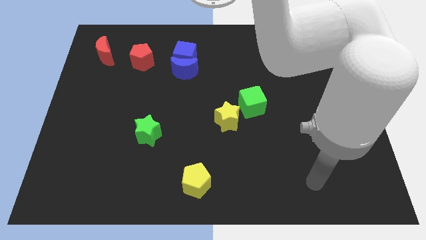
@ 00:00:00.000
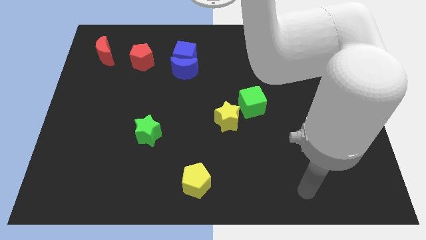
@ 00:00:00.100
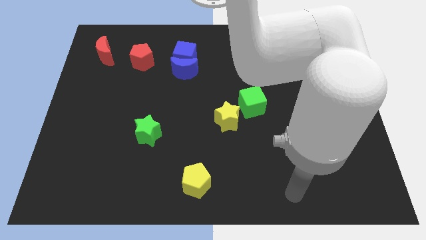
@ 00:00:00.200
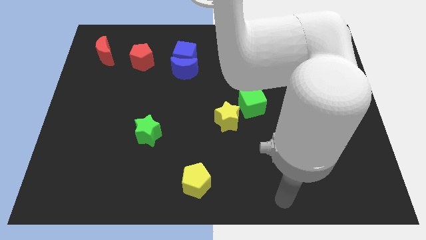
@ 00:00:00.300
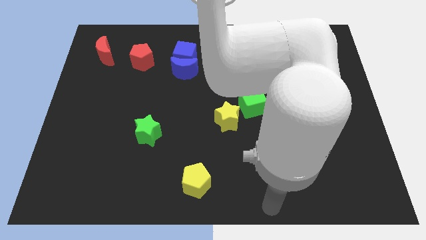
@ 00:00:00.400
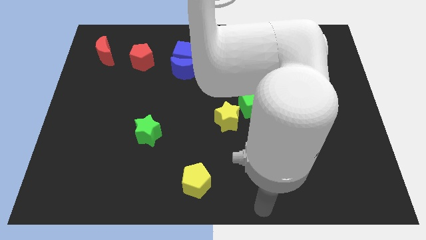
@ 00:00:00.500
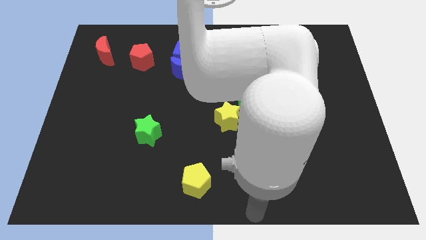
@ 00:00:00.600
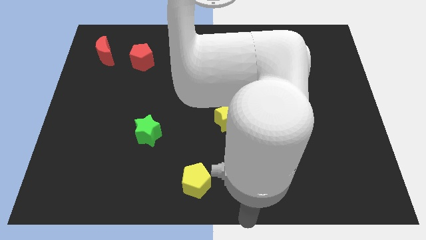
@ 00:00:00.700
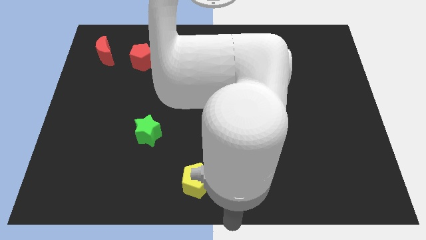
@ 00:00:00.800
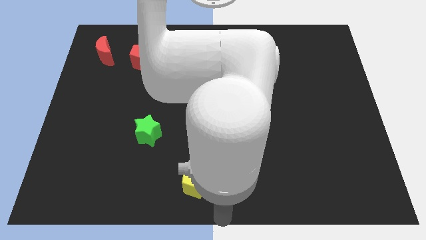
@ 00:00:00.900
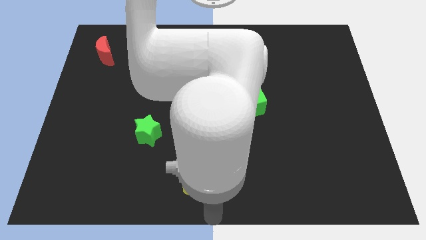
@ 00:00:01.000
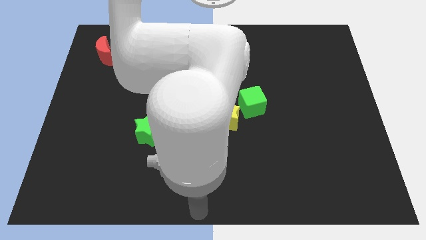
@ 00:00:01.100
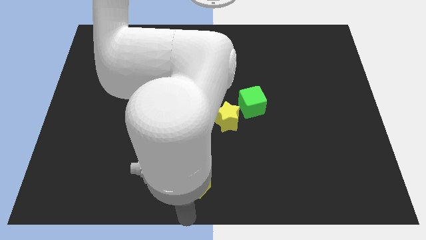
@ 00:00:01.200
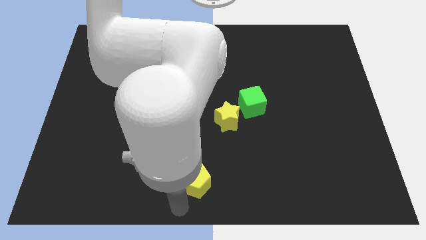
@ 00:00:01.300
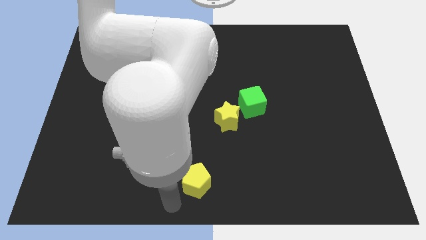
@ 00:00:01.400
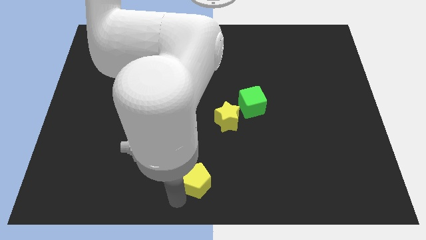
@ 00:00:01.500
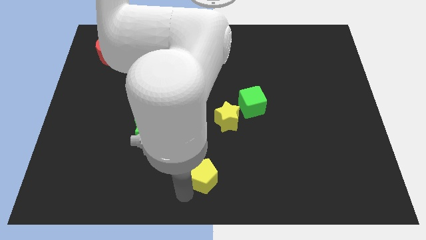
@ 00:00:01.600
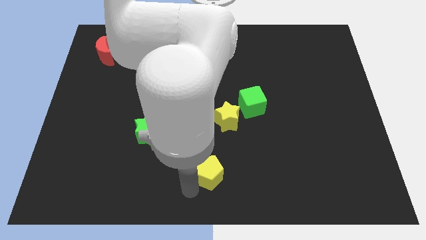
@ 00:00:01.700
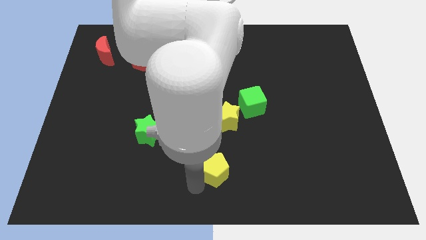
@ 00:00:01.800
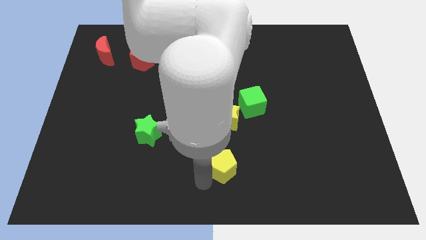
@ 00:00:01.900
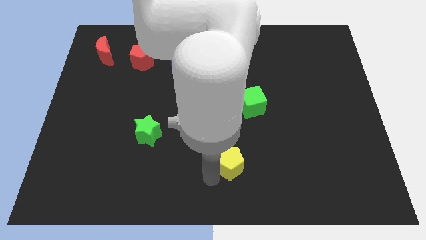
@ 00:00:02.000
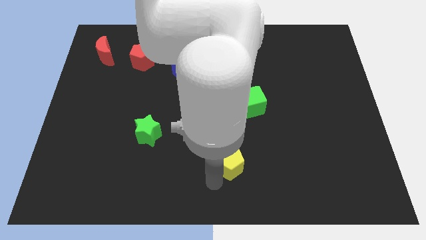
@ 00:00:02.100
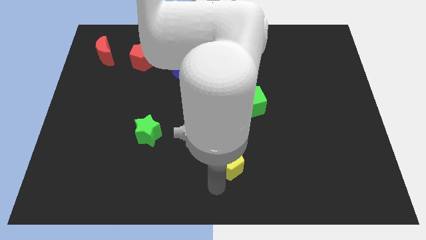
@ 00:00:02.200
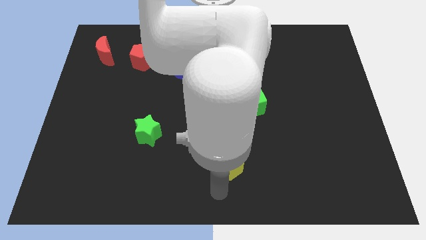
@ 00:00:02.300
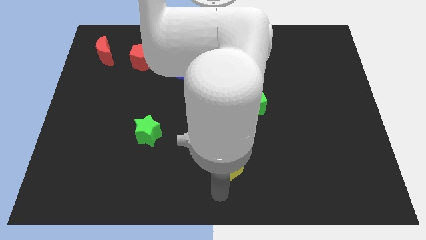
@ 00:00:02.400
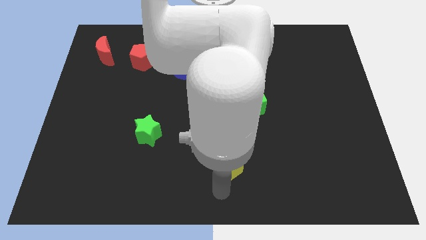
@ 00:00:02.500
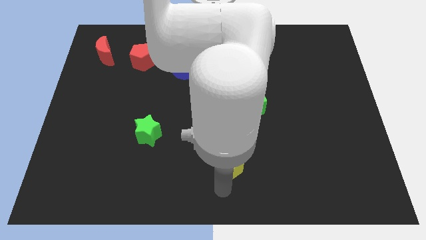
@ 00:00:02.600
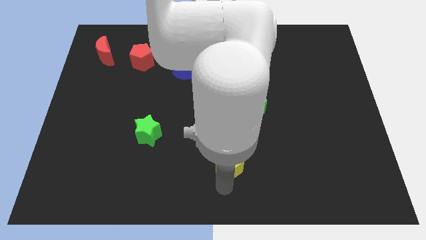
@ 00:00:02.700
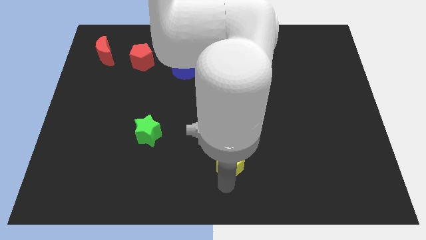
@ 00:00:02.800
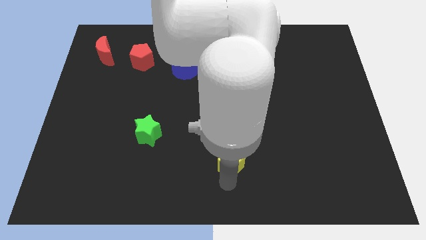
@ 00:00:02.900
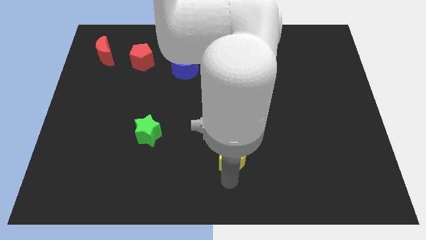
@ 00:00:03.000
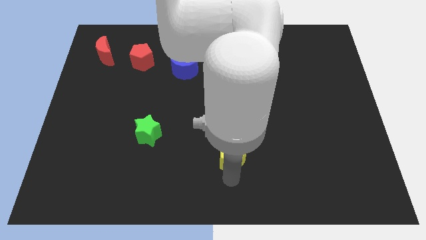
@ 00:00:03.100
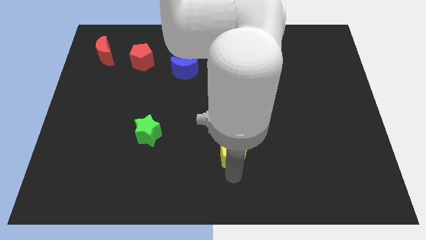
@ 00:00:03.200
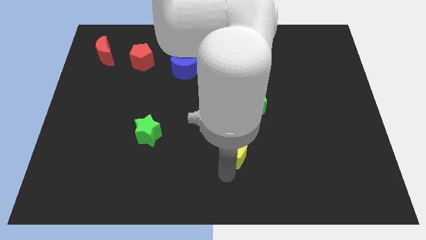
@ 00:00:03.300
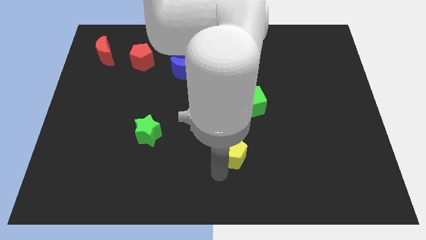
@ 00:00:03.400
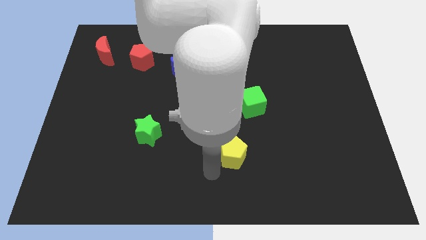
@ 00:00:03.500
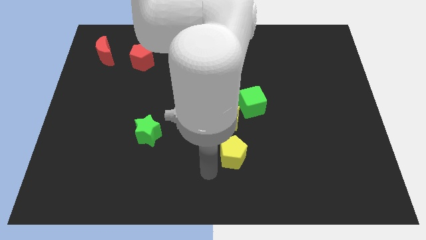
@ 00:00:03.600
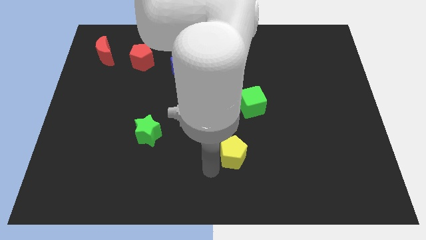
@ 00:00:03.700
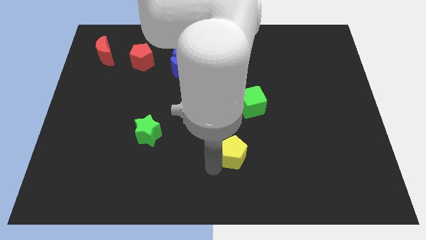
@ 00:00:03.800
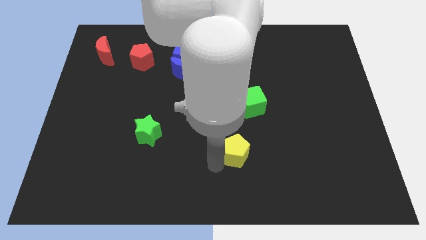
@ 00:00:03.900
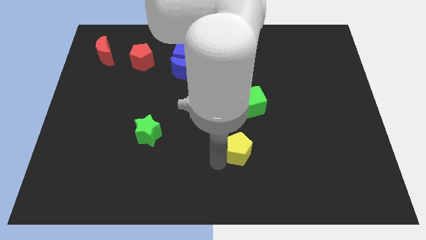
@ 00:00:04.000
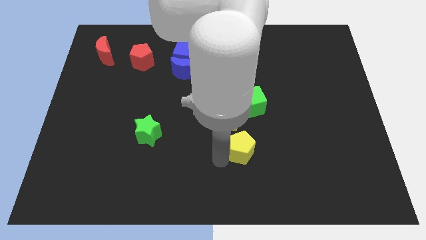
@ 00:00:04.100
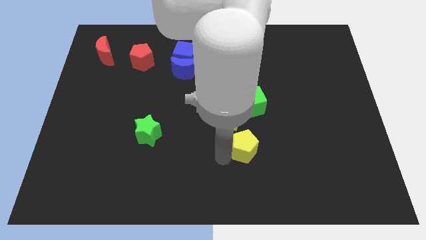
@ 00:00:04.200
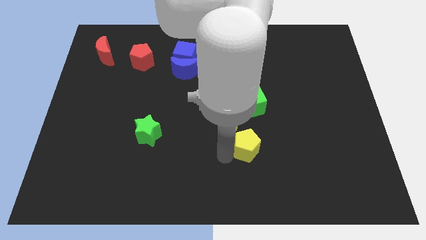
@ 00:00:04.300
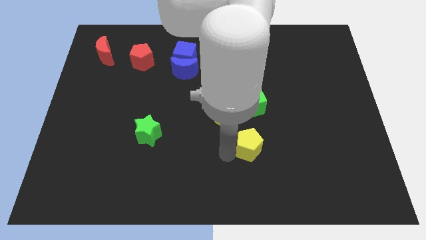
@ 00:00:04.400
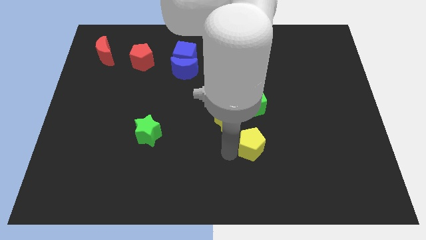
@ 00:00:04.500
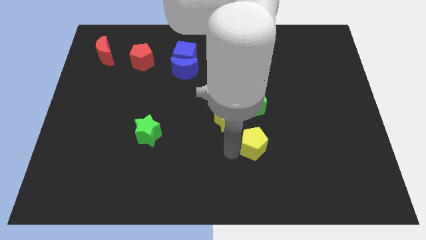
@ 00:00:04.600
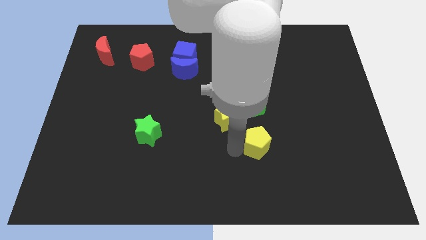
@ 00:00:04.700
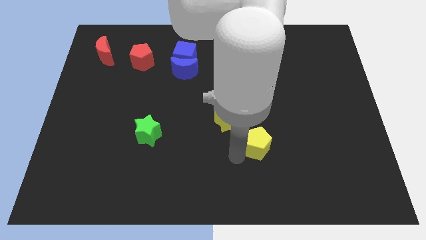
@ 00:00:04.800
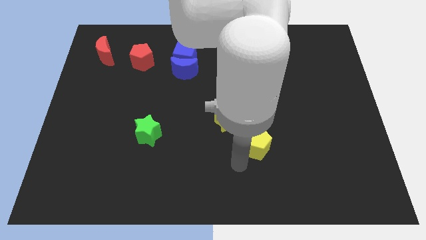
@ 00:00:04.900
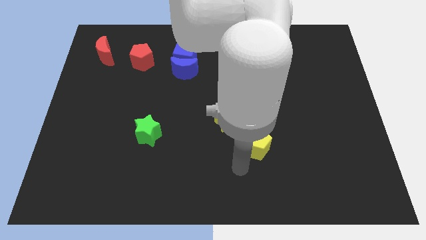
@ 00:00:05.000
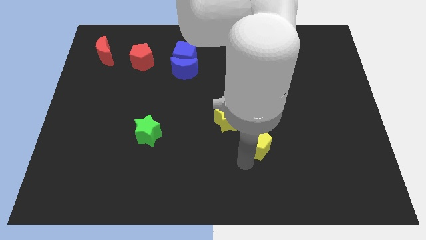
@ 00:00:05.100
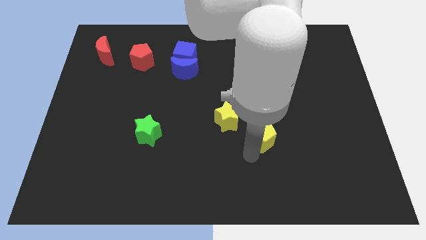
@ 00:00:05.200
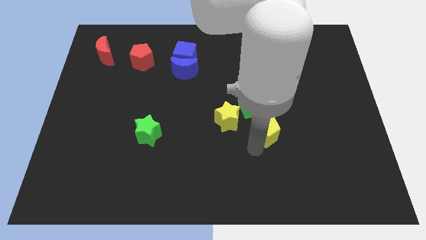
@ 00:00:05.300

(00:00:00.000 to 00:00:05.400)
push the yellow pentagon to the bottom right of the green cube

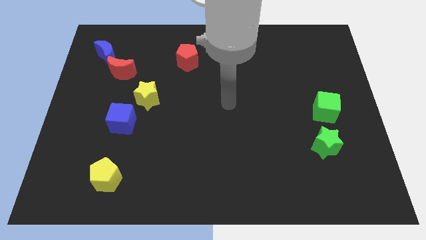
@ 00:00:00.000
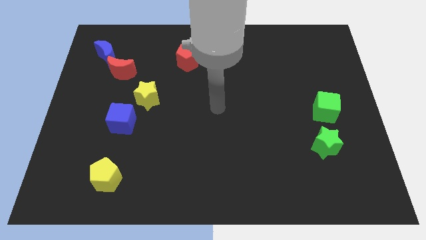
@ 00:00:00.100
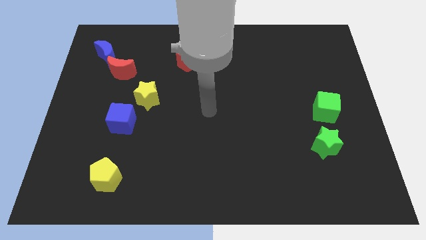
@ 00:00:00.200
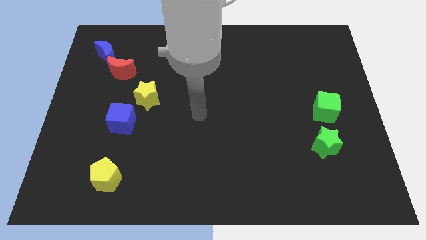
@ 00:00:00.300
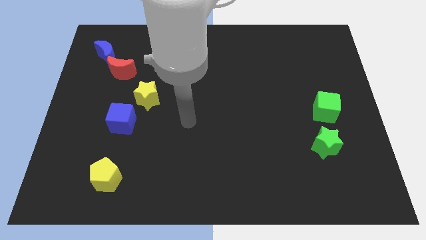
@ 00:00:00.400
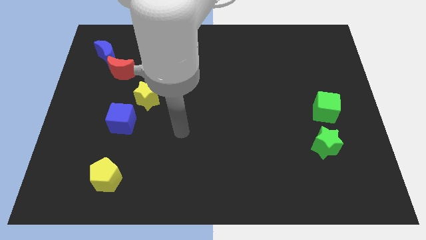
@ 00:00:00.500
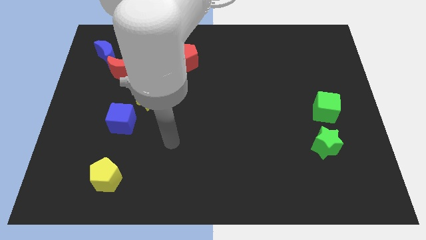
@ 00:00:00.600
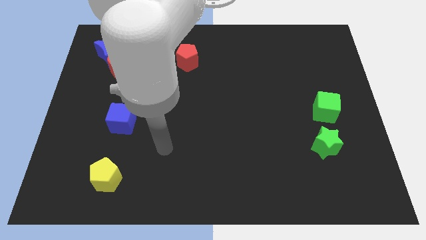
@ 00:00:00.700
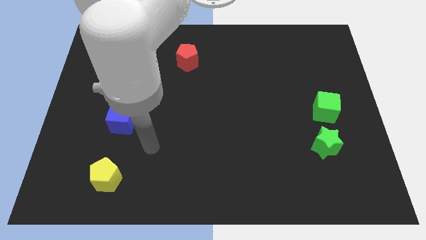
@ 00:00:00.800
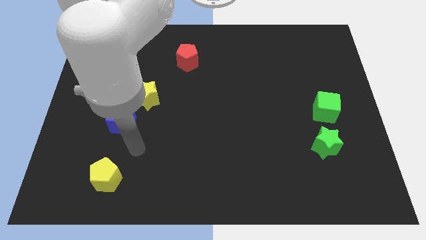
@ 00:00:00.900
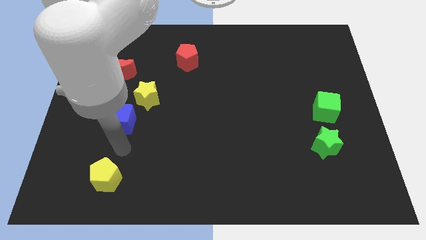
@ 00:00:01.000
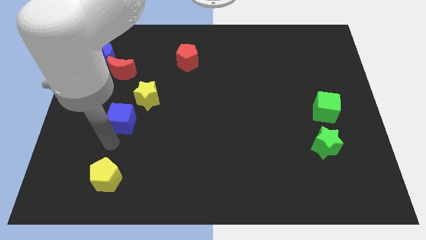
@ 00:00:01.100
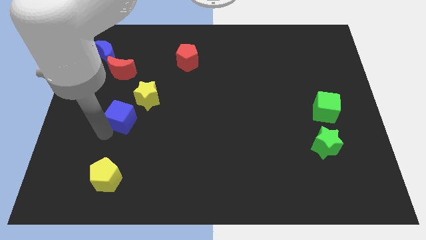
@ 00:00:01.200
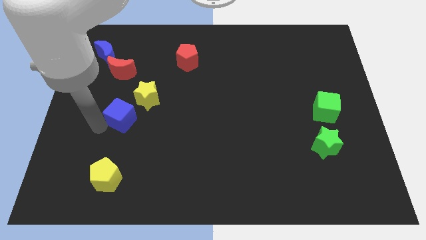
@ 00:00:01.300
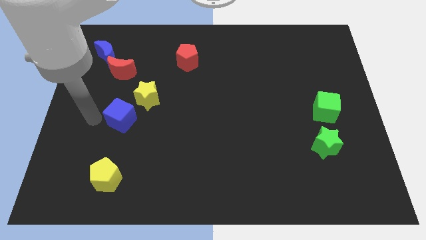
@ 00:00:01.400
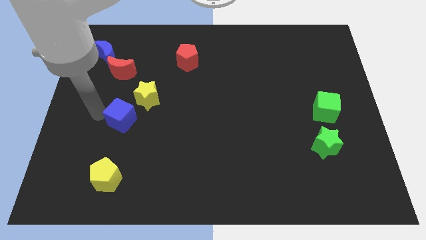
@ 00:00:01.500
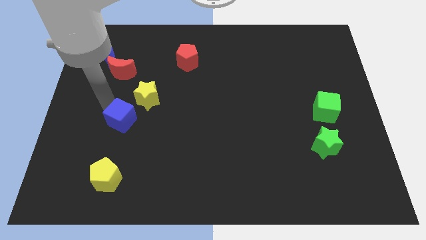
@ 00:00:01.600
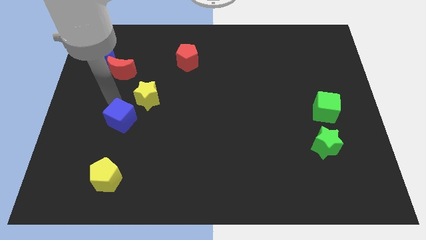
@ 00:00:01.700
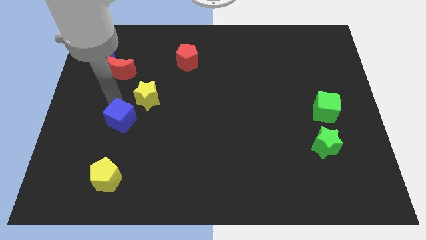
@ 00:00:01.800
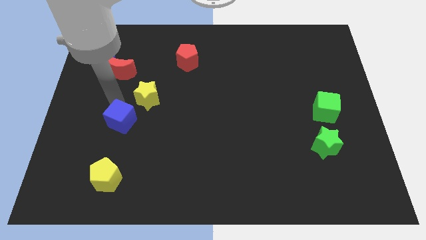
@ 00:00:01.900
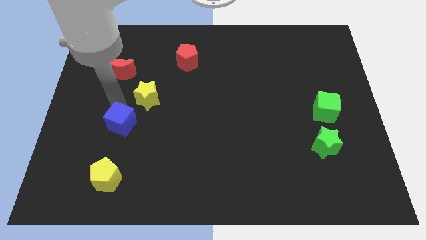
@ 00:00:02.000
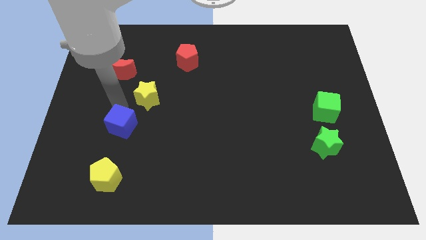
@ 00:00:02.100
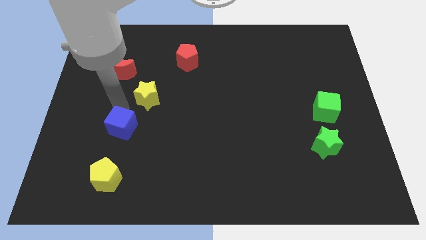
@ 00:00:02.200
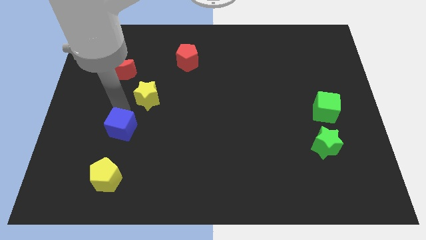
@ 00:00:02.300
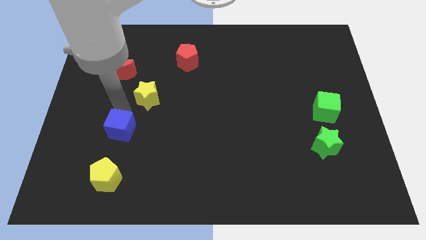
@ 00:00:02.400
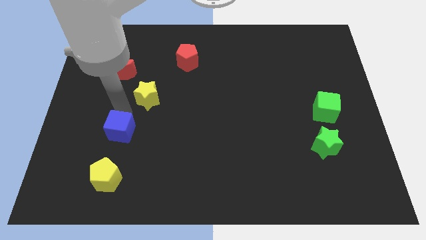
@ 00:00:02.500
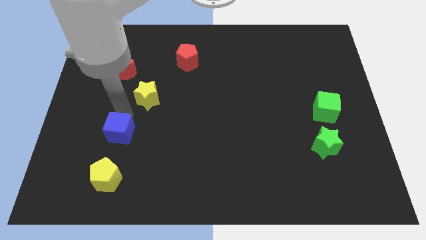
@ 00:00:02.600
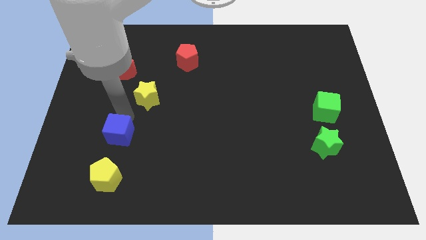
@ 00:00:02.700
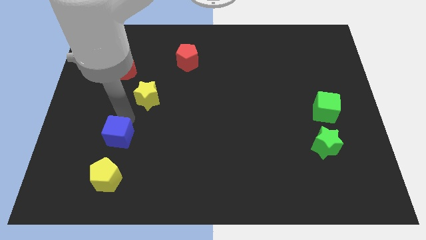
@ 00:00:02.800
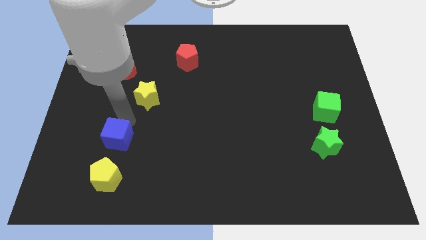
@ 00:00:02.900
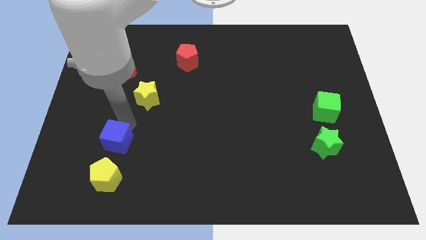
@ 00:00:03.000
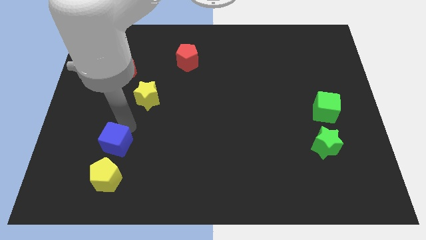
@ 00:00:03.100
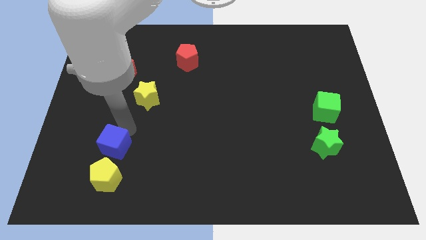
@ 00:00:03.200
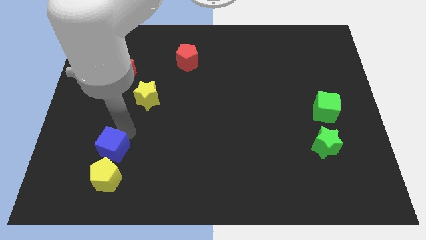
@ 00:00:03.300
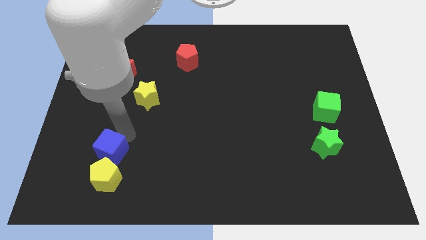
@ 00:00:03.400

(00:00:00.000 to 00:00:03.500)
push the blue cube to the top right side of the yellow pentagon
